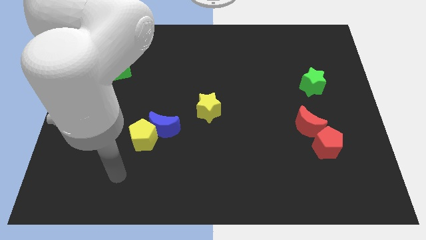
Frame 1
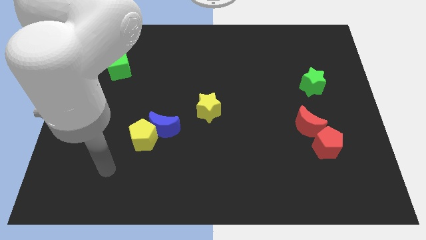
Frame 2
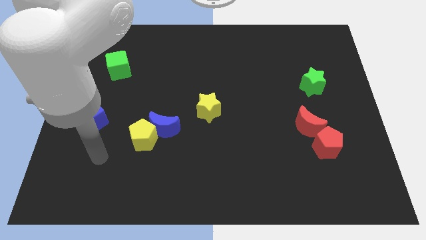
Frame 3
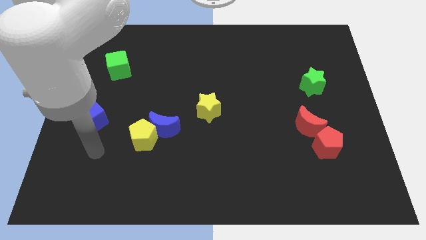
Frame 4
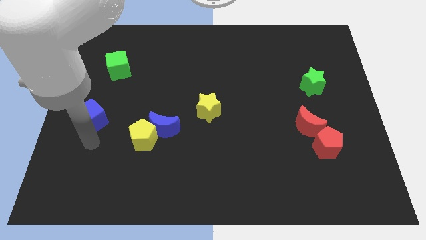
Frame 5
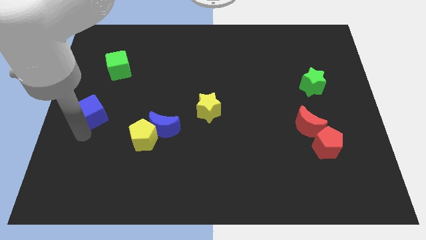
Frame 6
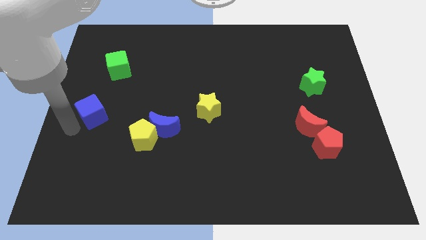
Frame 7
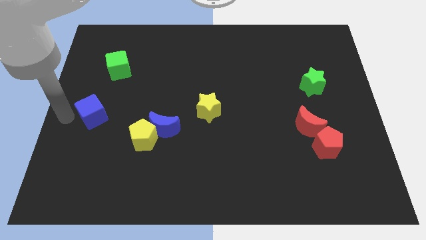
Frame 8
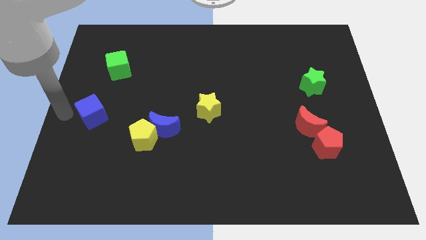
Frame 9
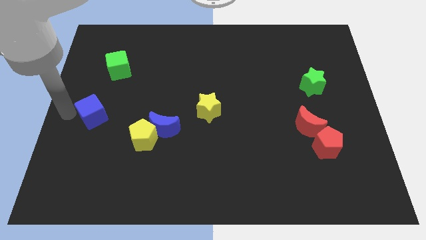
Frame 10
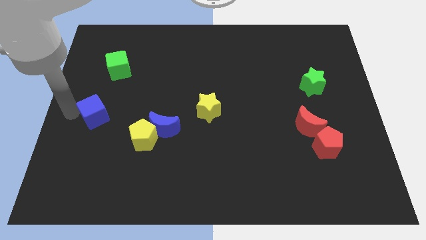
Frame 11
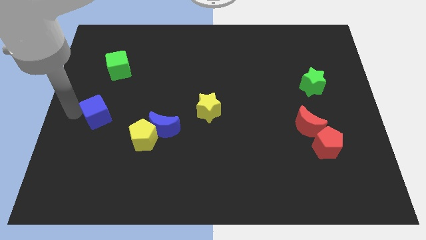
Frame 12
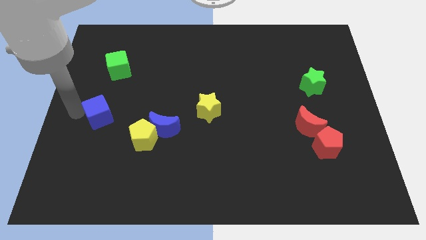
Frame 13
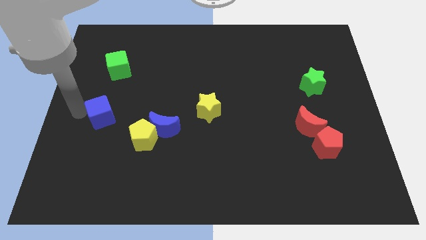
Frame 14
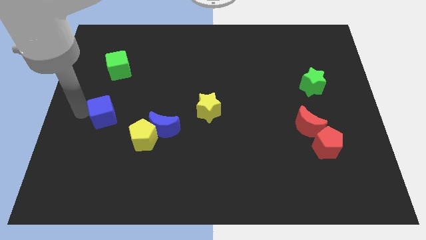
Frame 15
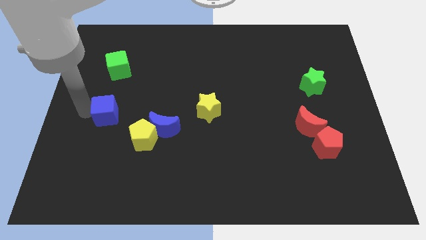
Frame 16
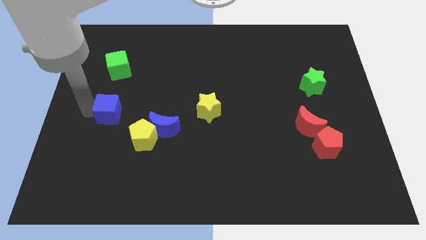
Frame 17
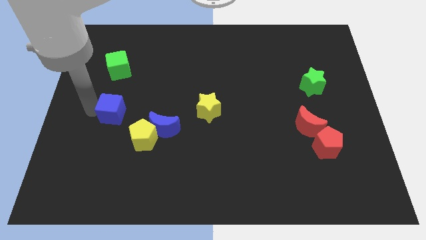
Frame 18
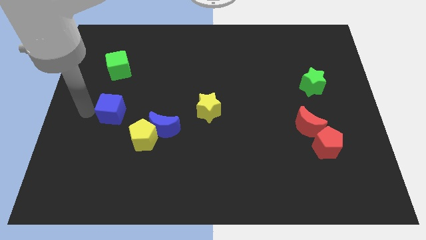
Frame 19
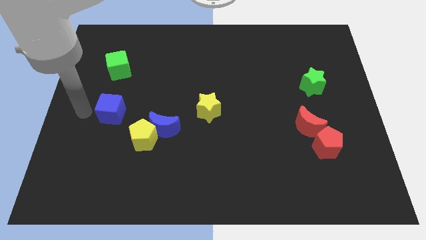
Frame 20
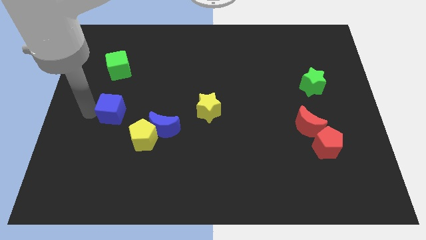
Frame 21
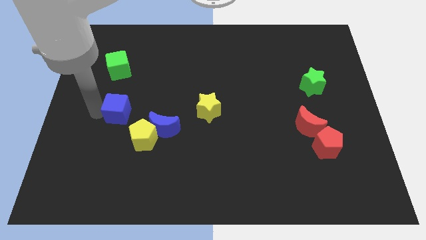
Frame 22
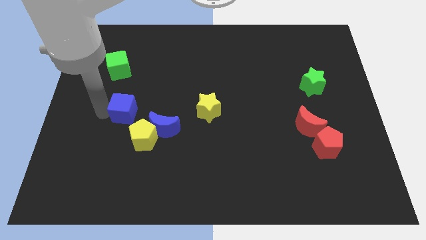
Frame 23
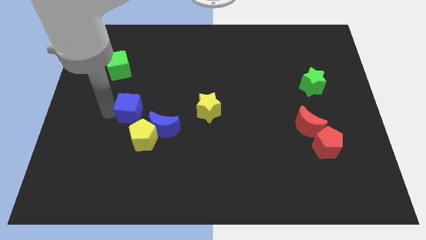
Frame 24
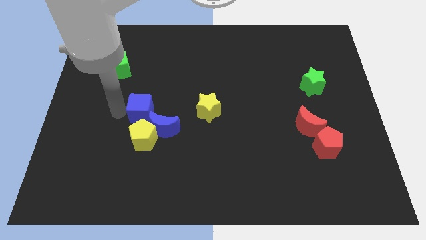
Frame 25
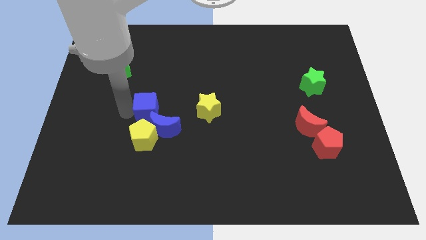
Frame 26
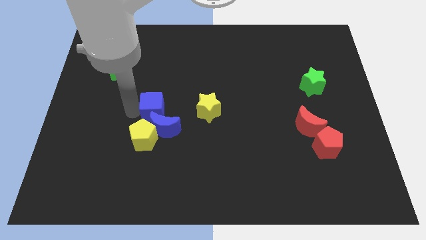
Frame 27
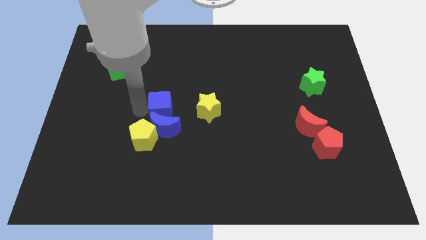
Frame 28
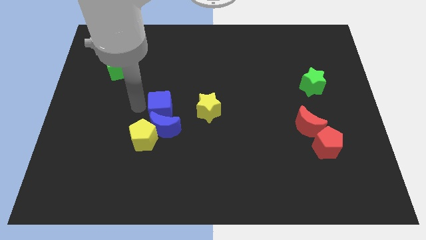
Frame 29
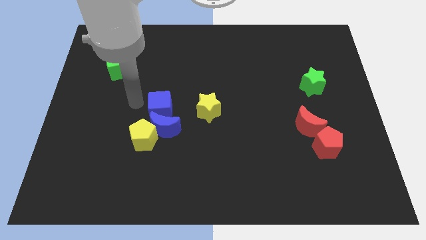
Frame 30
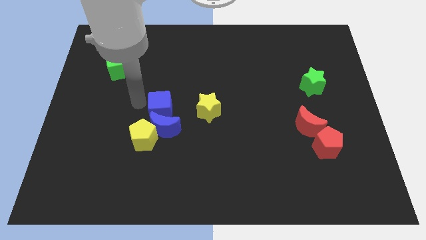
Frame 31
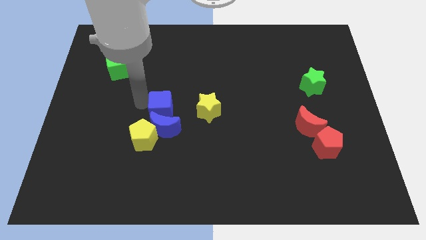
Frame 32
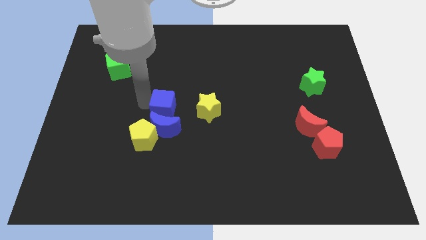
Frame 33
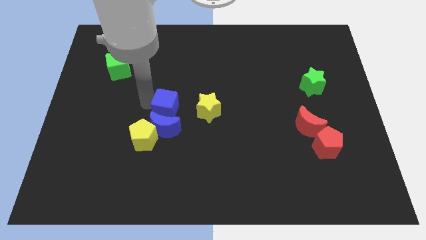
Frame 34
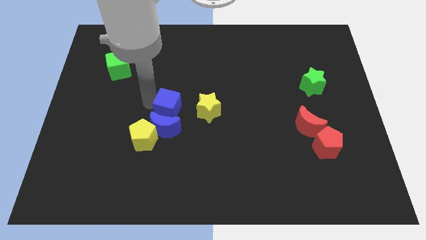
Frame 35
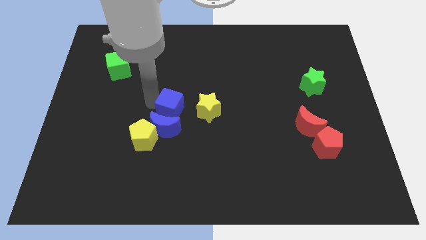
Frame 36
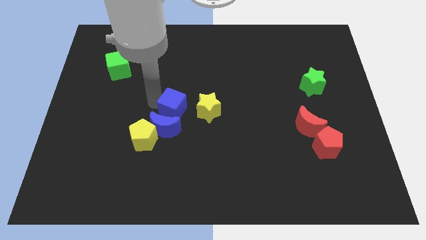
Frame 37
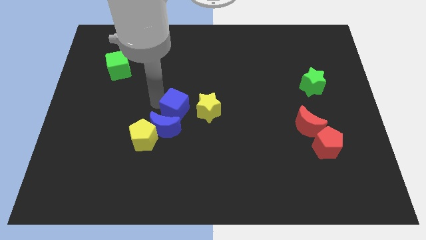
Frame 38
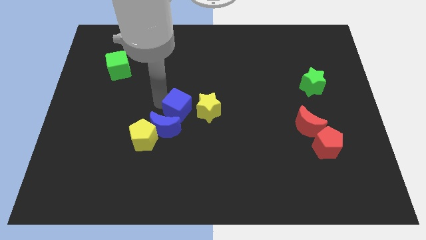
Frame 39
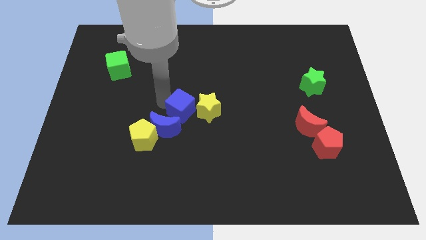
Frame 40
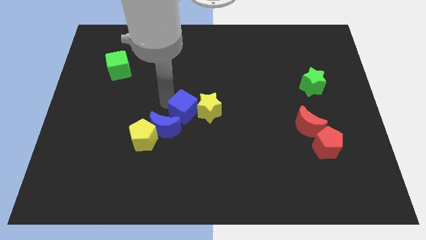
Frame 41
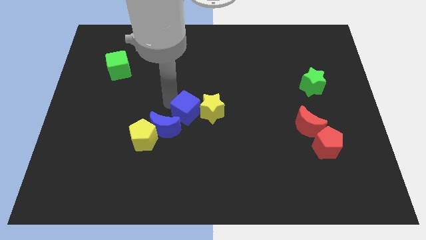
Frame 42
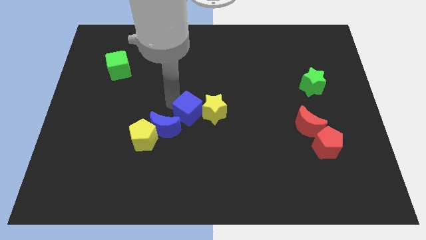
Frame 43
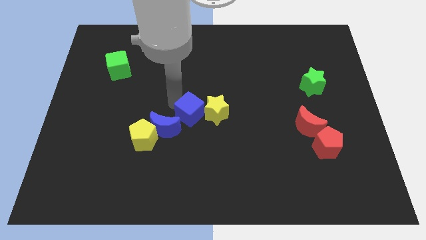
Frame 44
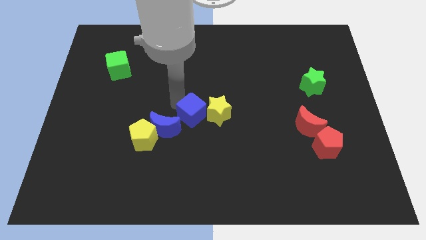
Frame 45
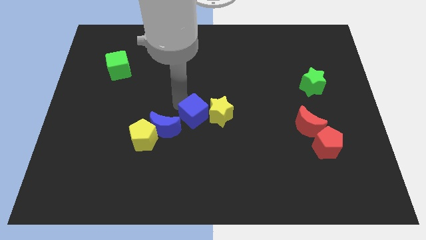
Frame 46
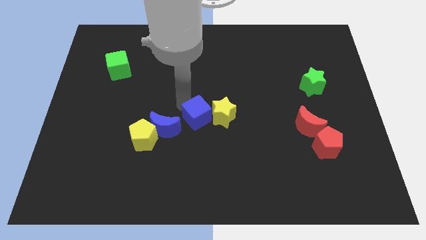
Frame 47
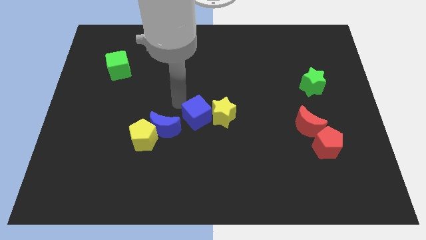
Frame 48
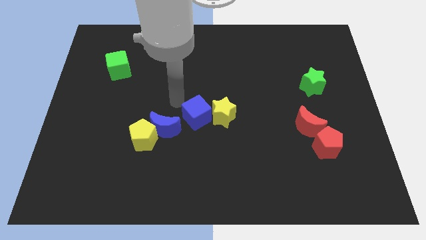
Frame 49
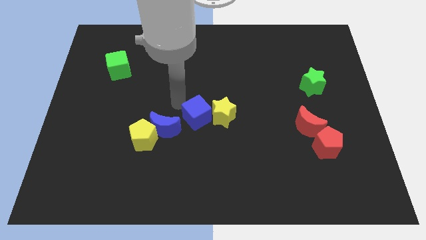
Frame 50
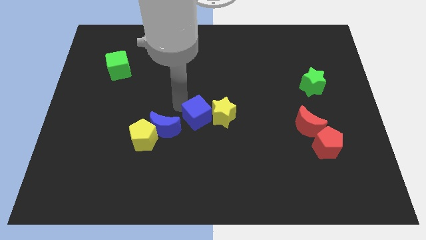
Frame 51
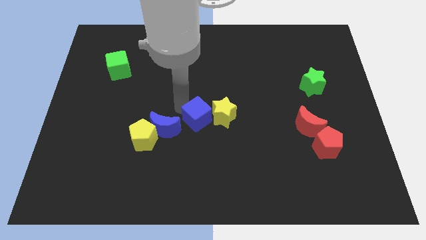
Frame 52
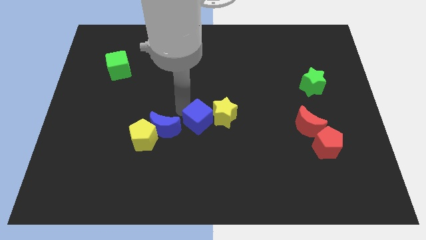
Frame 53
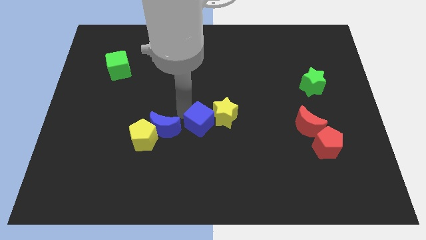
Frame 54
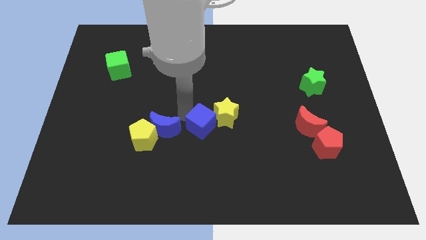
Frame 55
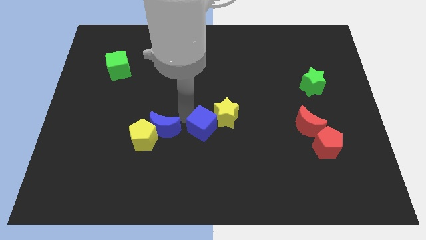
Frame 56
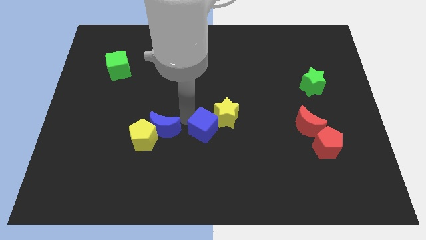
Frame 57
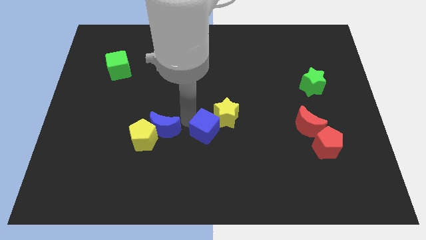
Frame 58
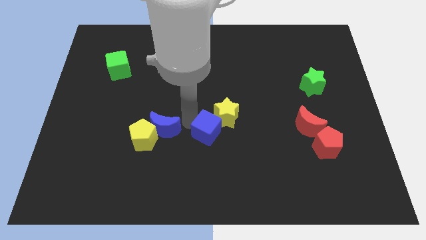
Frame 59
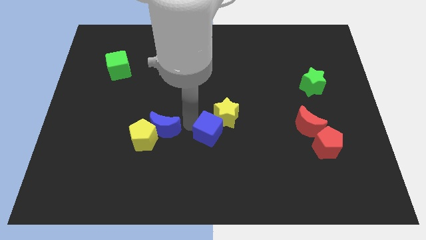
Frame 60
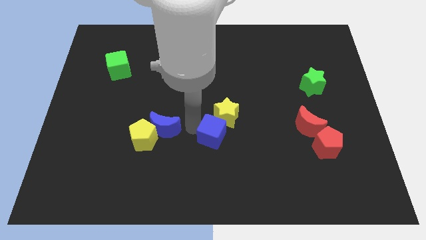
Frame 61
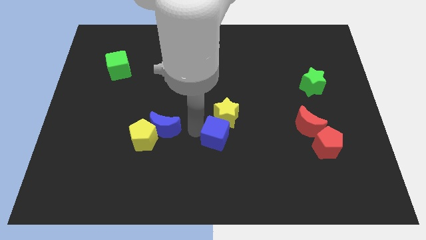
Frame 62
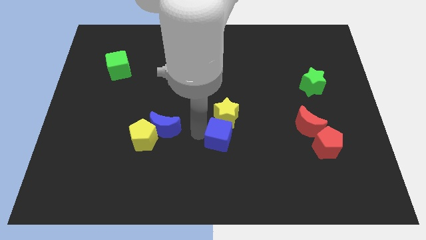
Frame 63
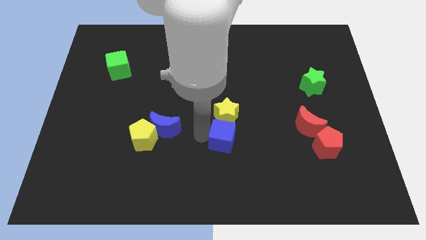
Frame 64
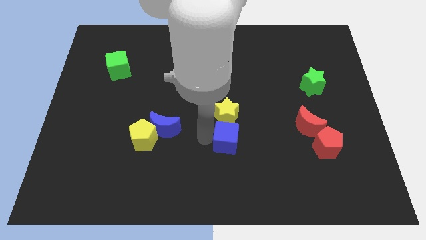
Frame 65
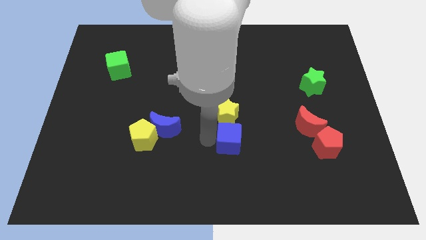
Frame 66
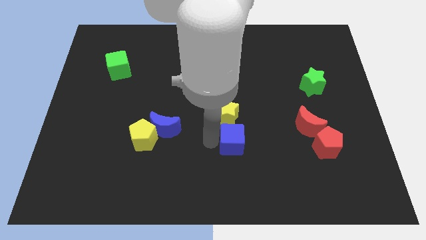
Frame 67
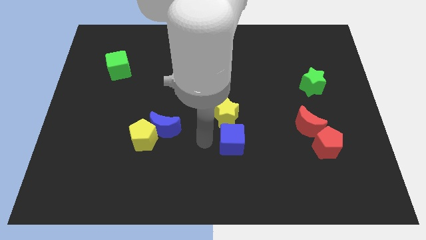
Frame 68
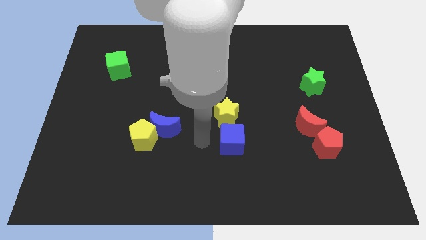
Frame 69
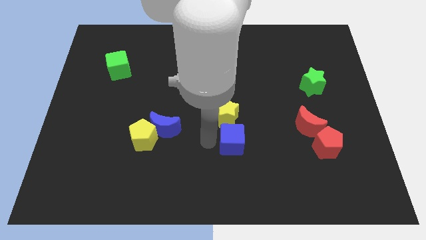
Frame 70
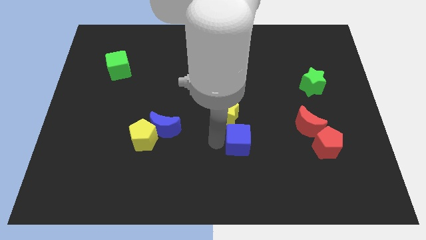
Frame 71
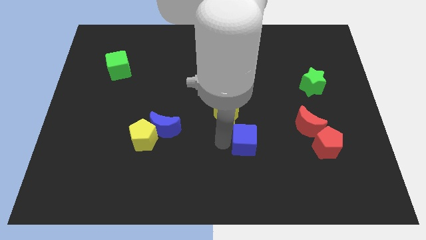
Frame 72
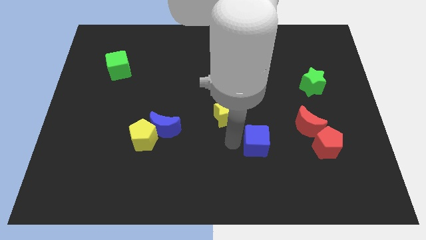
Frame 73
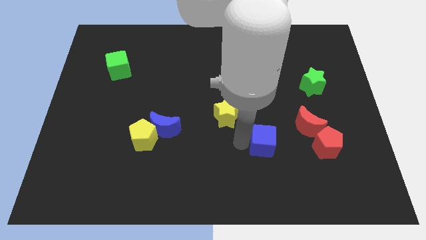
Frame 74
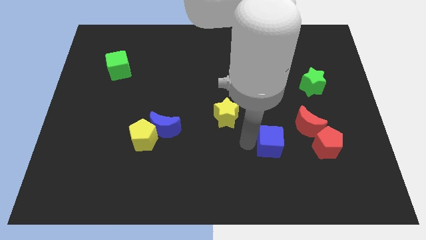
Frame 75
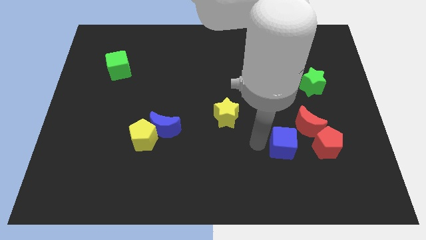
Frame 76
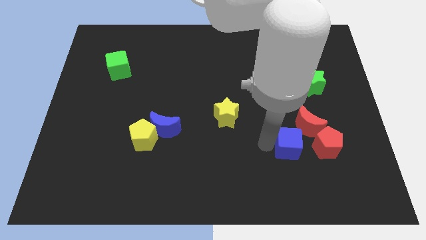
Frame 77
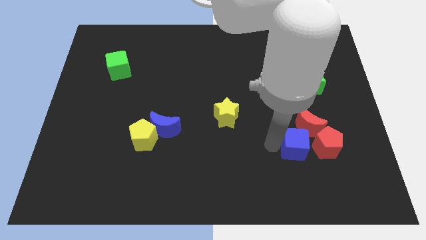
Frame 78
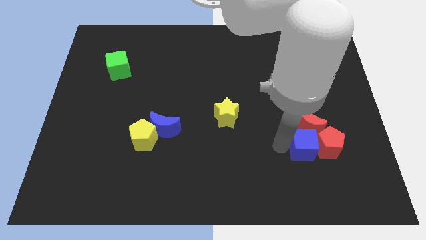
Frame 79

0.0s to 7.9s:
slide the blue cube next to the red pentagon
